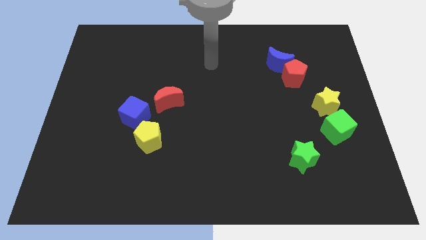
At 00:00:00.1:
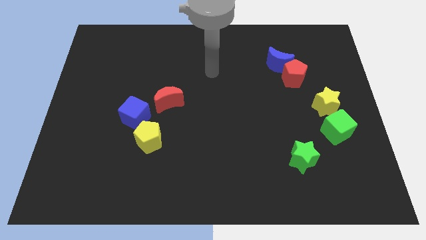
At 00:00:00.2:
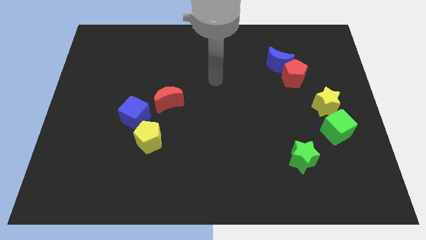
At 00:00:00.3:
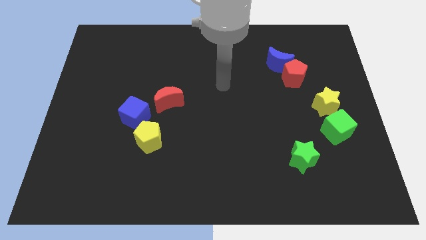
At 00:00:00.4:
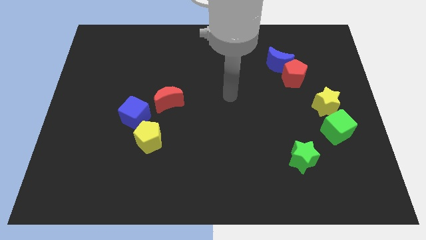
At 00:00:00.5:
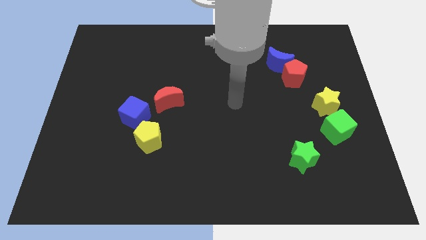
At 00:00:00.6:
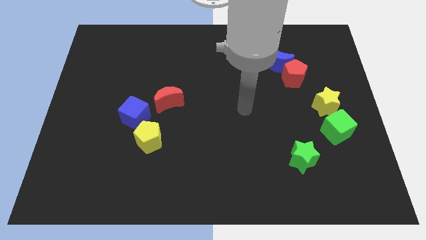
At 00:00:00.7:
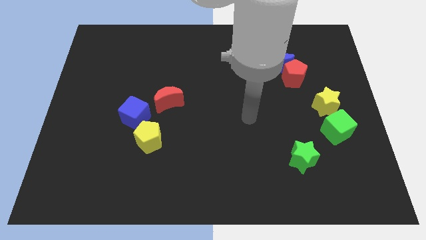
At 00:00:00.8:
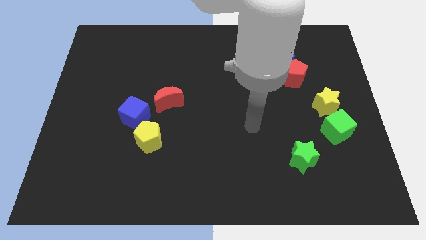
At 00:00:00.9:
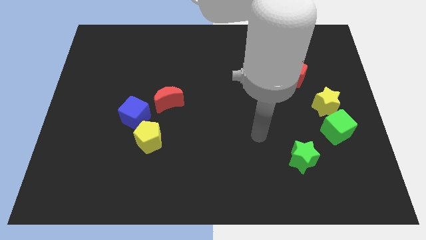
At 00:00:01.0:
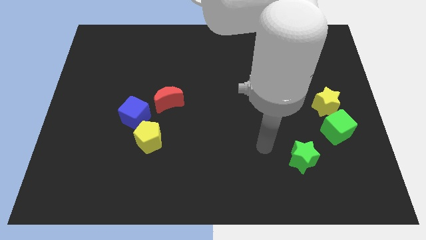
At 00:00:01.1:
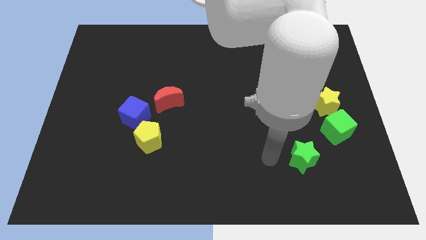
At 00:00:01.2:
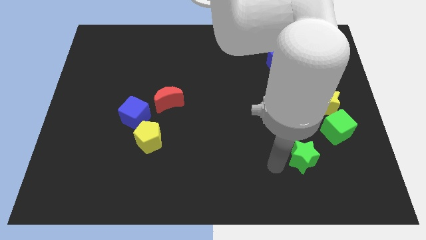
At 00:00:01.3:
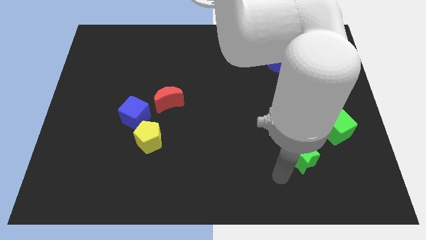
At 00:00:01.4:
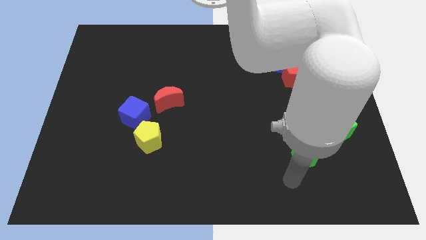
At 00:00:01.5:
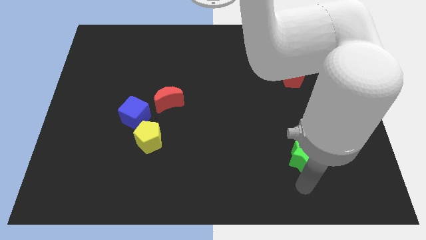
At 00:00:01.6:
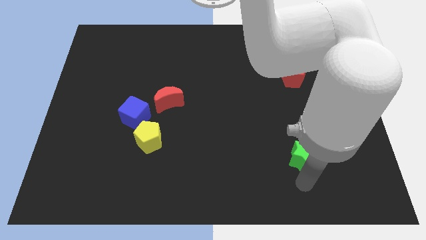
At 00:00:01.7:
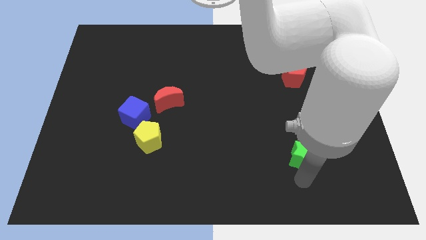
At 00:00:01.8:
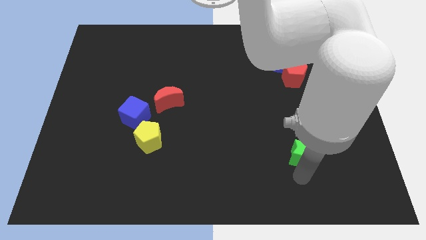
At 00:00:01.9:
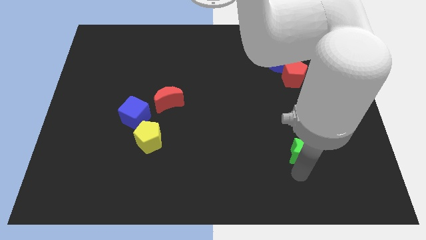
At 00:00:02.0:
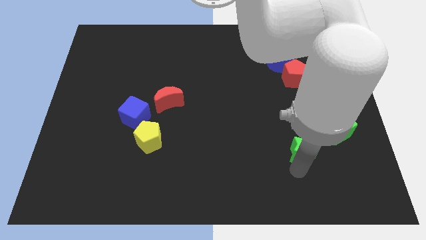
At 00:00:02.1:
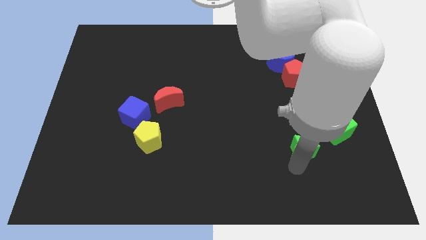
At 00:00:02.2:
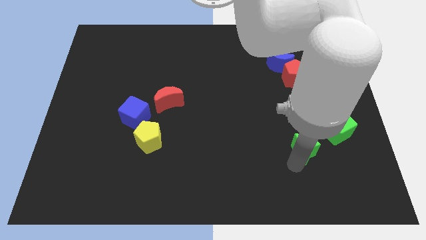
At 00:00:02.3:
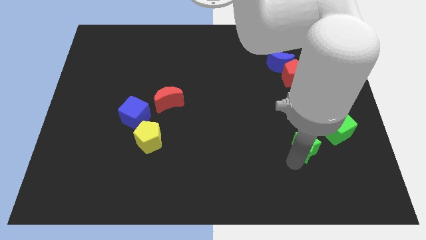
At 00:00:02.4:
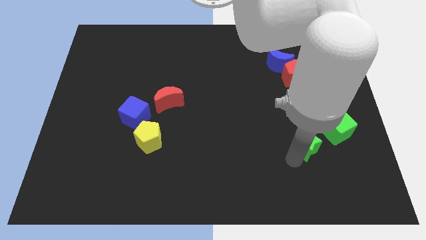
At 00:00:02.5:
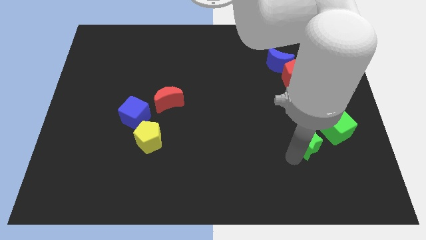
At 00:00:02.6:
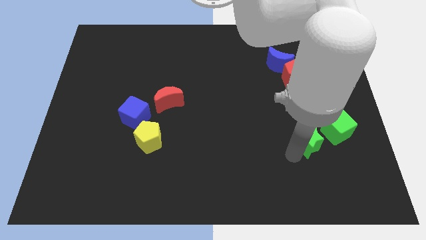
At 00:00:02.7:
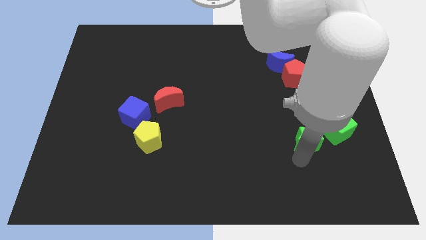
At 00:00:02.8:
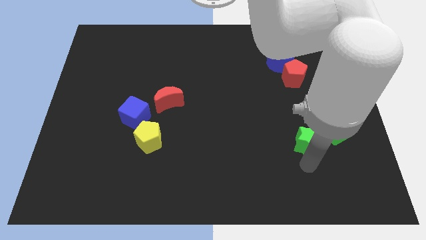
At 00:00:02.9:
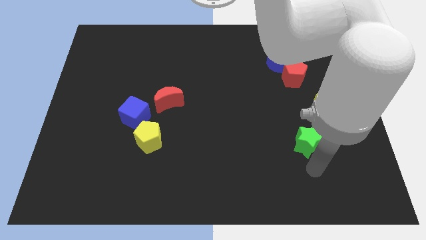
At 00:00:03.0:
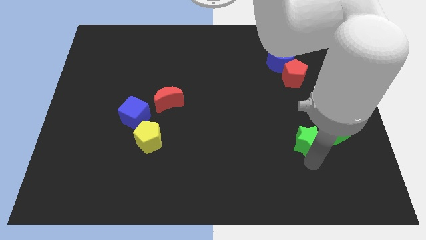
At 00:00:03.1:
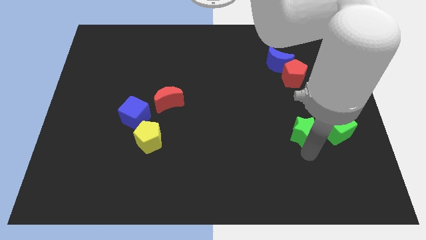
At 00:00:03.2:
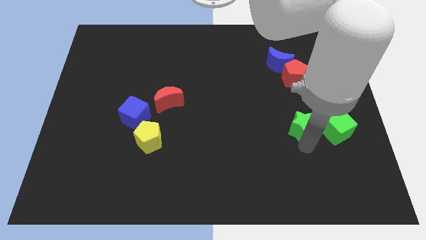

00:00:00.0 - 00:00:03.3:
slightly move the green star upwards

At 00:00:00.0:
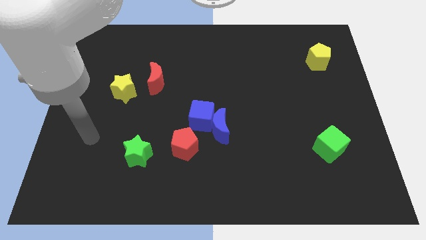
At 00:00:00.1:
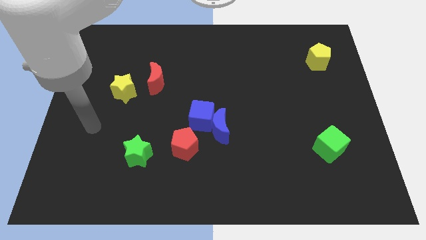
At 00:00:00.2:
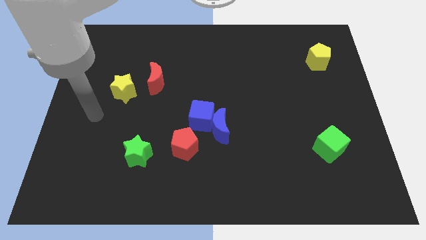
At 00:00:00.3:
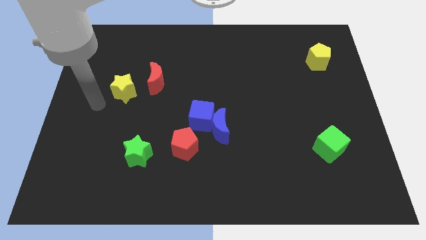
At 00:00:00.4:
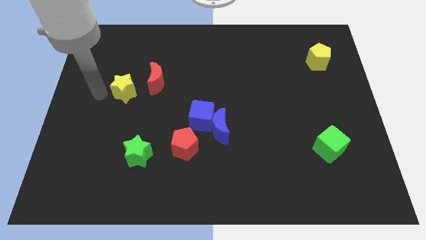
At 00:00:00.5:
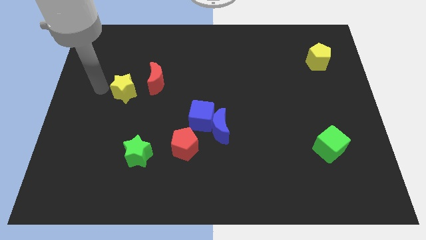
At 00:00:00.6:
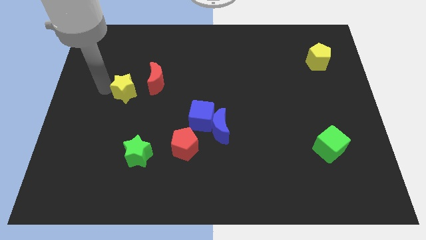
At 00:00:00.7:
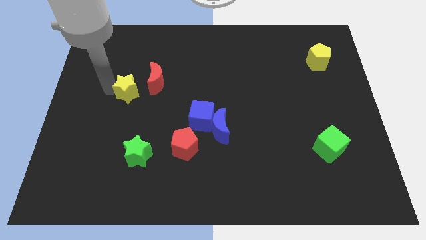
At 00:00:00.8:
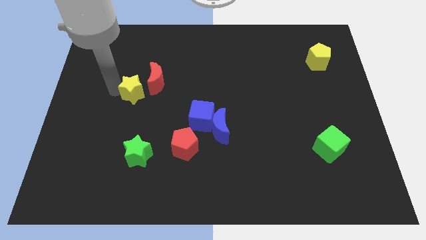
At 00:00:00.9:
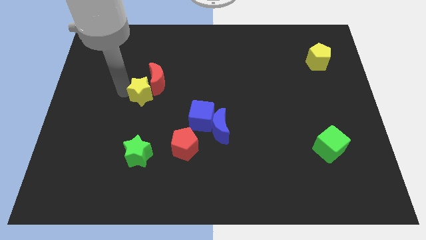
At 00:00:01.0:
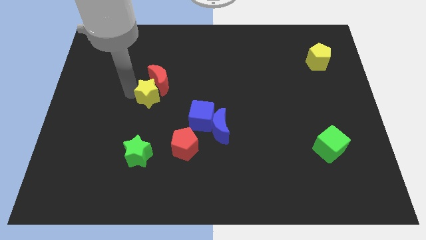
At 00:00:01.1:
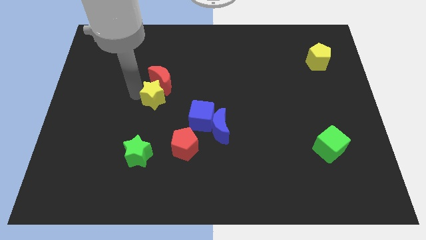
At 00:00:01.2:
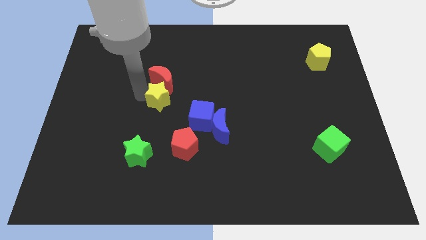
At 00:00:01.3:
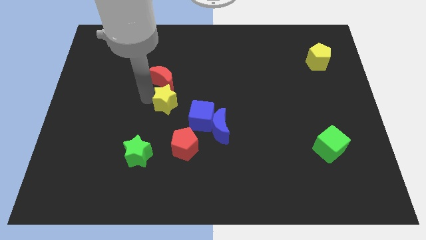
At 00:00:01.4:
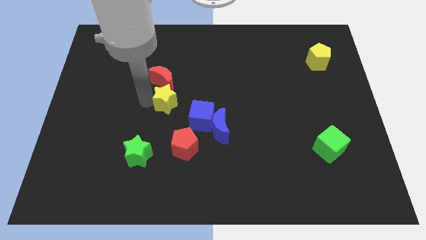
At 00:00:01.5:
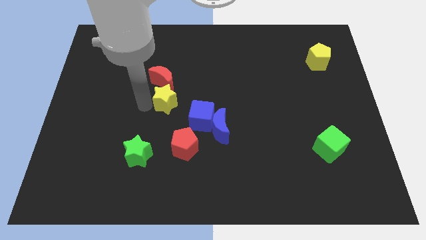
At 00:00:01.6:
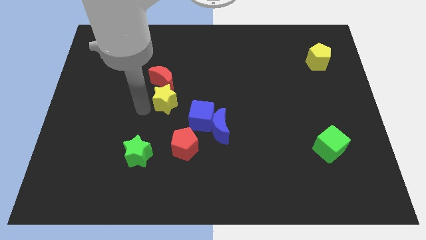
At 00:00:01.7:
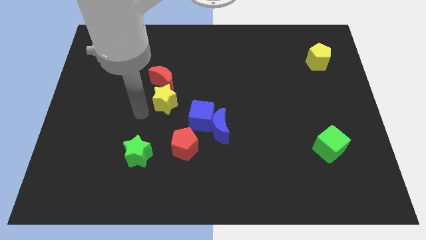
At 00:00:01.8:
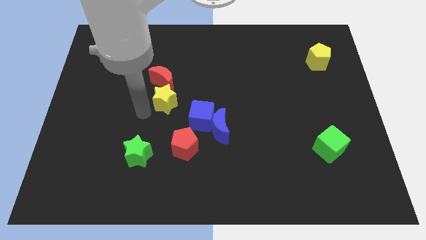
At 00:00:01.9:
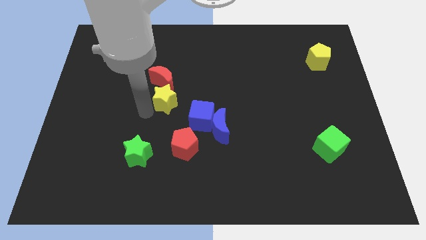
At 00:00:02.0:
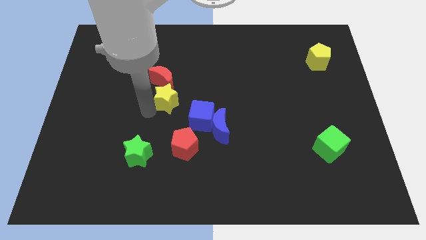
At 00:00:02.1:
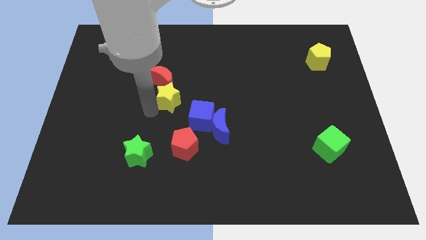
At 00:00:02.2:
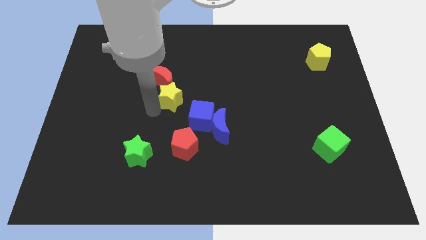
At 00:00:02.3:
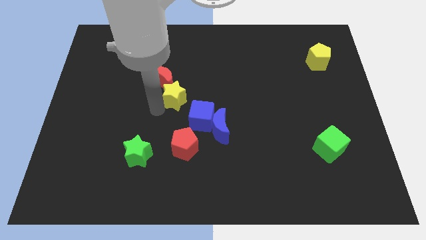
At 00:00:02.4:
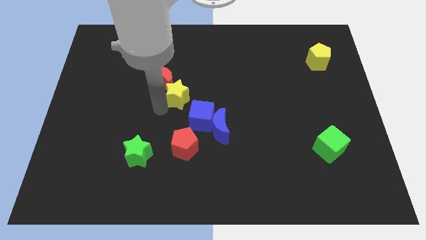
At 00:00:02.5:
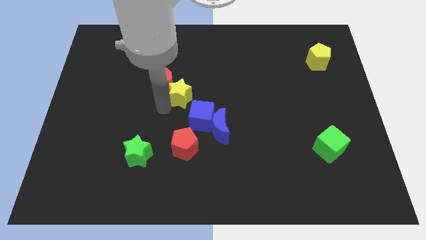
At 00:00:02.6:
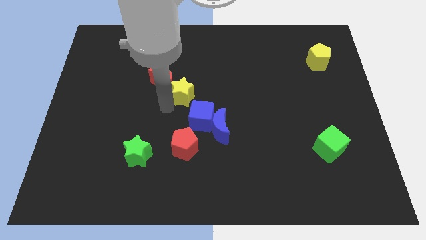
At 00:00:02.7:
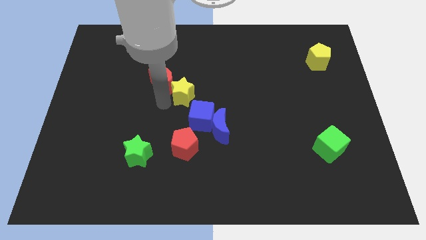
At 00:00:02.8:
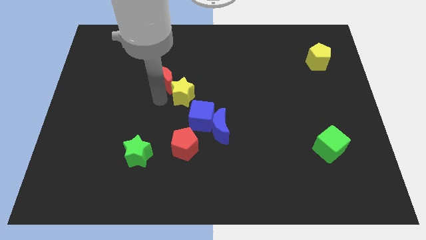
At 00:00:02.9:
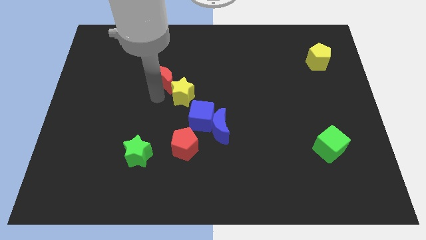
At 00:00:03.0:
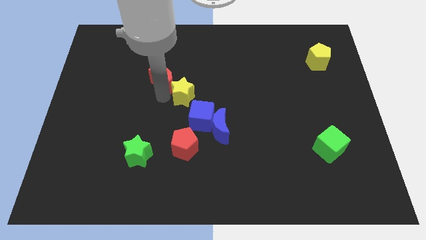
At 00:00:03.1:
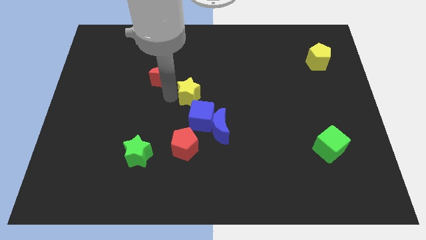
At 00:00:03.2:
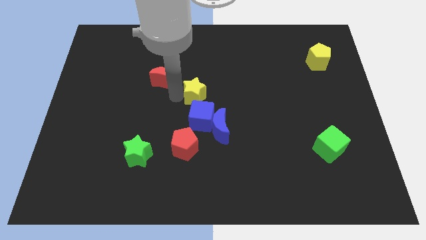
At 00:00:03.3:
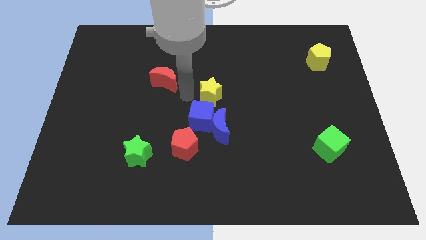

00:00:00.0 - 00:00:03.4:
move the yellow star right

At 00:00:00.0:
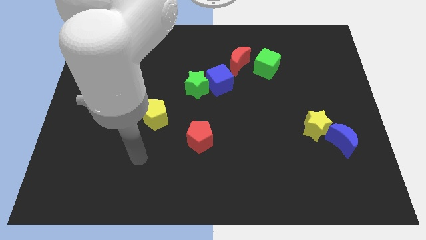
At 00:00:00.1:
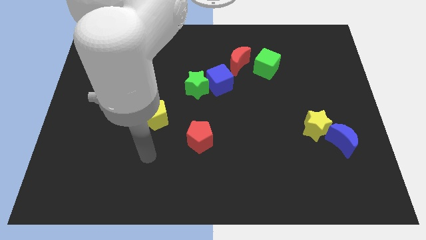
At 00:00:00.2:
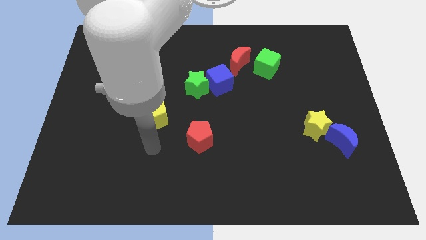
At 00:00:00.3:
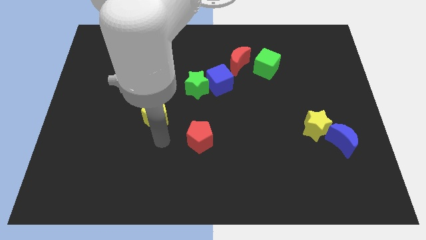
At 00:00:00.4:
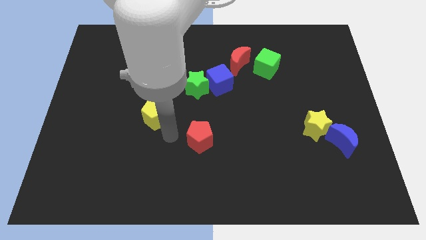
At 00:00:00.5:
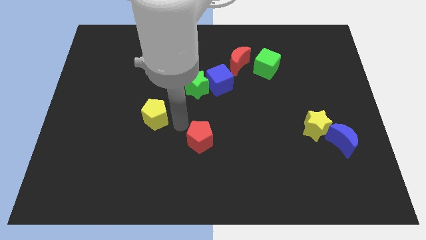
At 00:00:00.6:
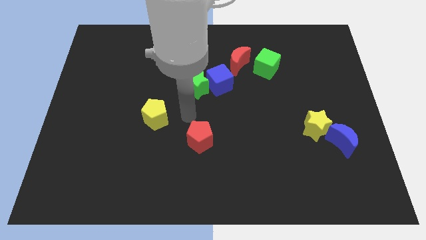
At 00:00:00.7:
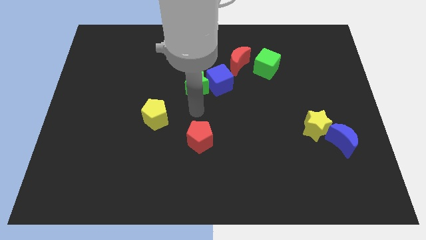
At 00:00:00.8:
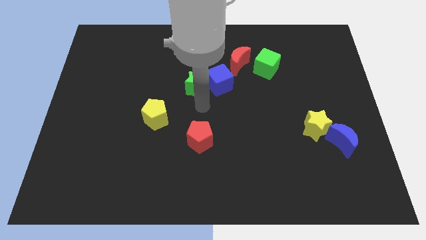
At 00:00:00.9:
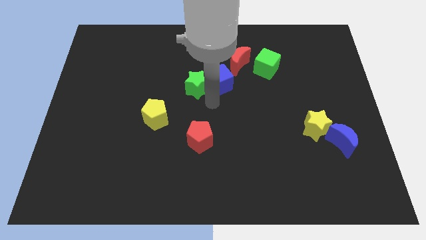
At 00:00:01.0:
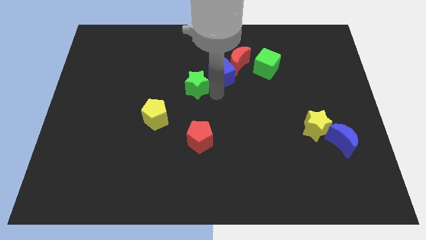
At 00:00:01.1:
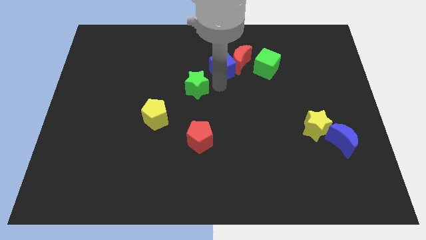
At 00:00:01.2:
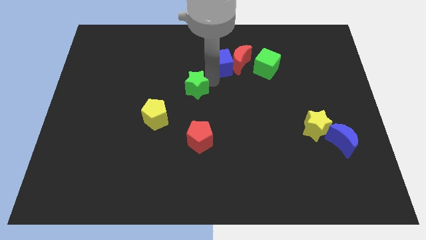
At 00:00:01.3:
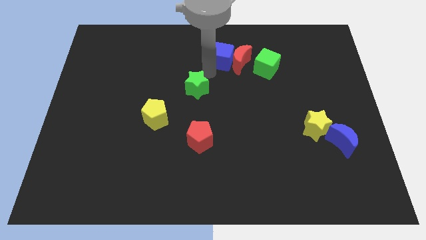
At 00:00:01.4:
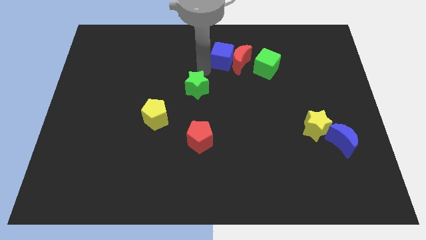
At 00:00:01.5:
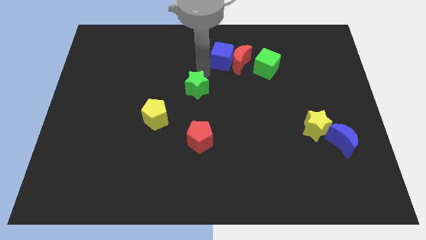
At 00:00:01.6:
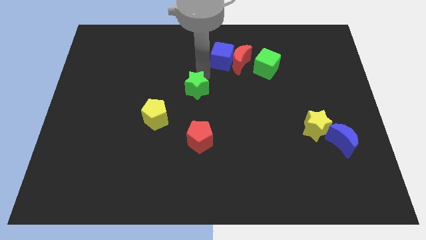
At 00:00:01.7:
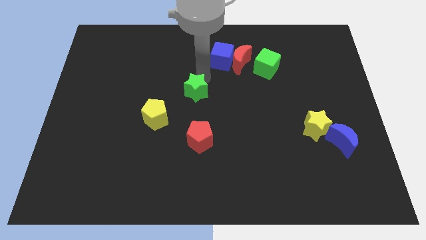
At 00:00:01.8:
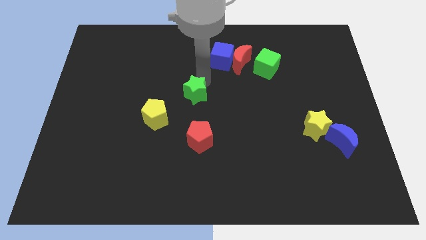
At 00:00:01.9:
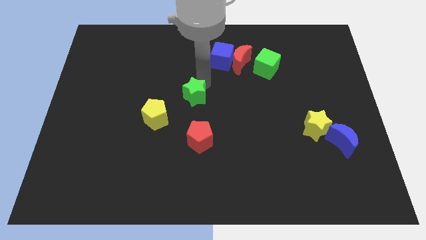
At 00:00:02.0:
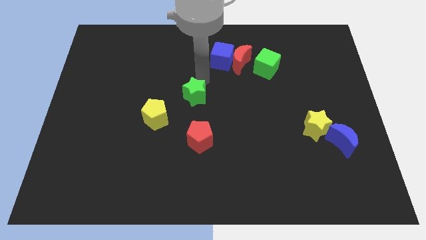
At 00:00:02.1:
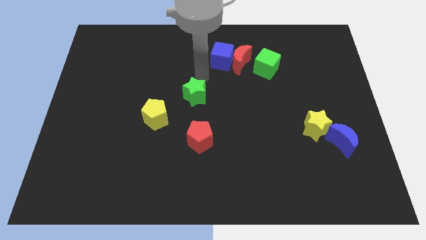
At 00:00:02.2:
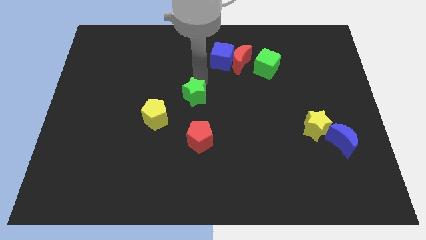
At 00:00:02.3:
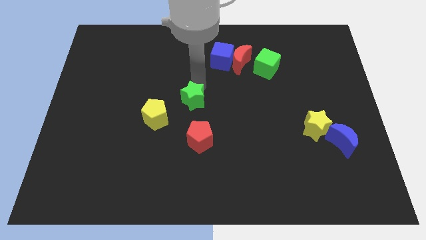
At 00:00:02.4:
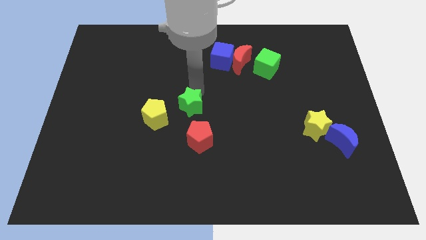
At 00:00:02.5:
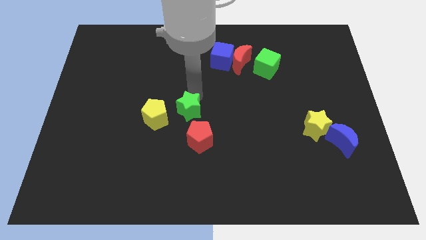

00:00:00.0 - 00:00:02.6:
slightly push the green star down
